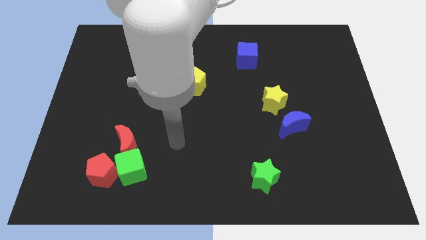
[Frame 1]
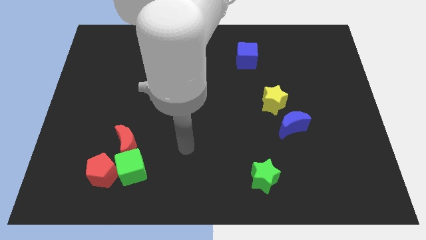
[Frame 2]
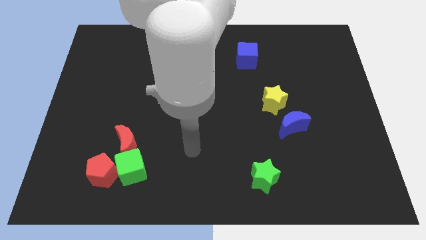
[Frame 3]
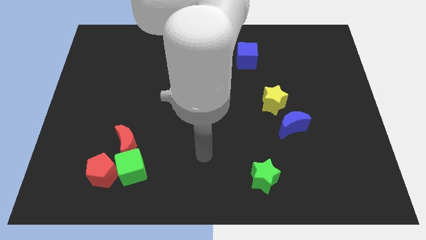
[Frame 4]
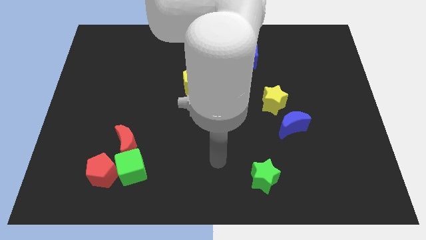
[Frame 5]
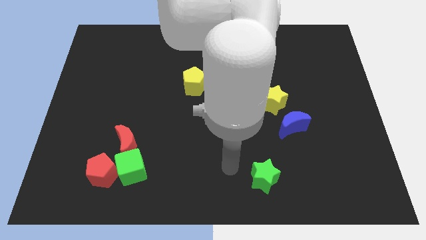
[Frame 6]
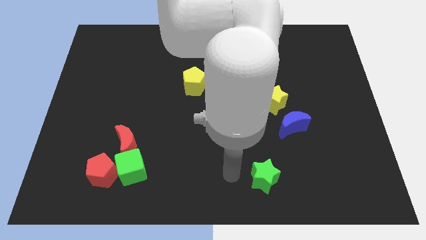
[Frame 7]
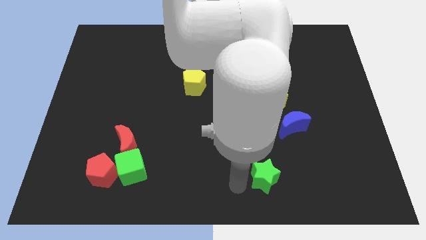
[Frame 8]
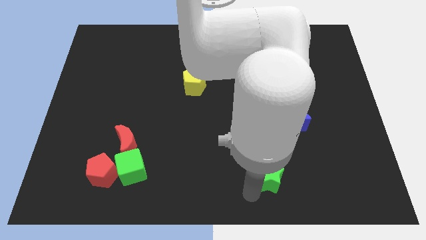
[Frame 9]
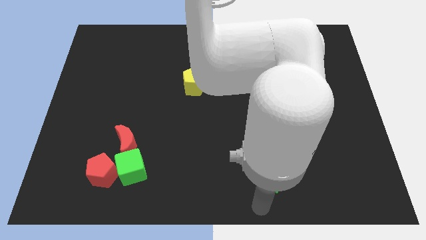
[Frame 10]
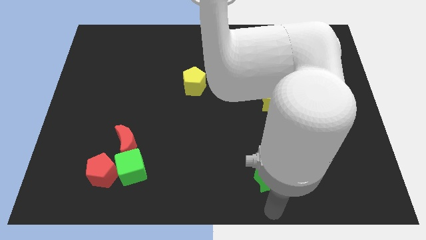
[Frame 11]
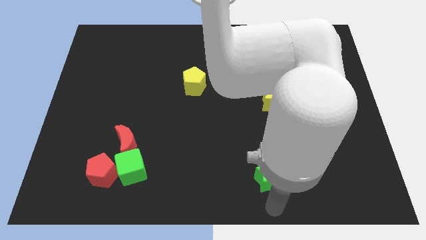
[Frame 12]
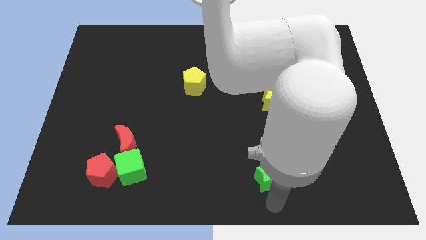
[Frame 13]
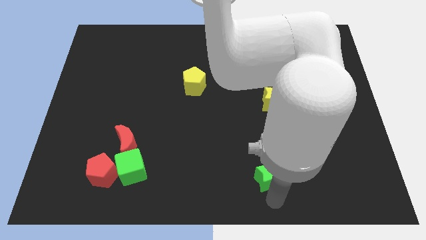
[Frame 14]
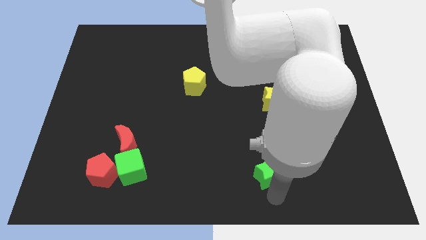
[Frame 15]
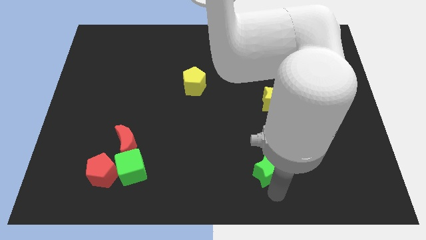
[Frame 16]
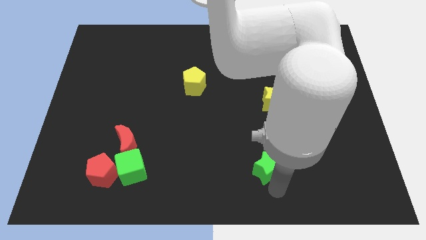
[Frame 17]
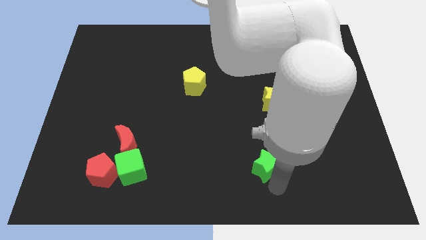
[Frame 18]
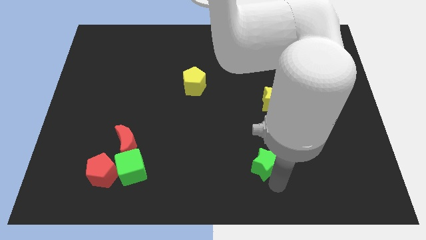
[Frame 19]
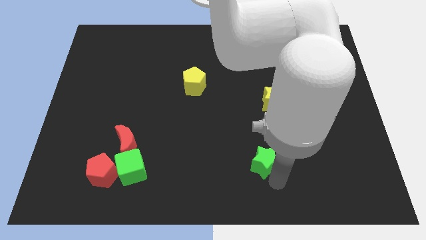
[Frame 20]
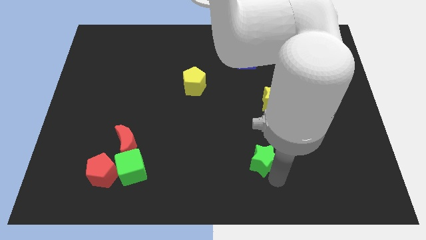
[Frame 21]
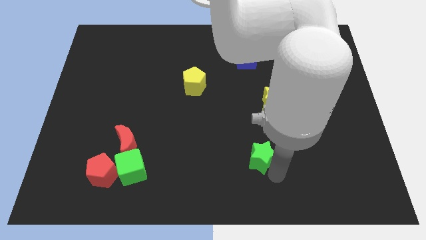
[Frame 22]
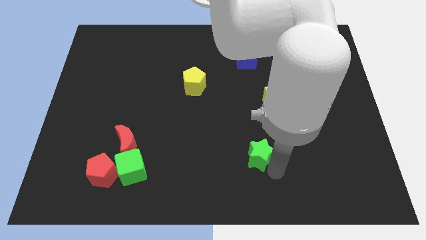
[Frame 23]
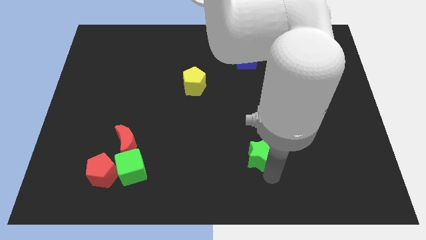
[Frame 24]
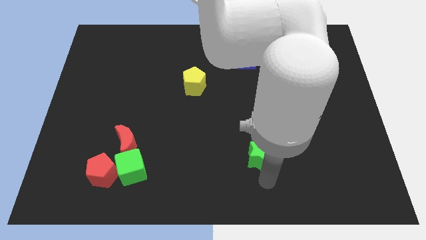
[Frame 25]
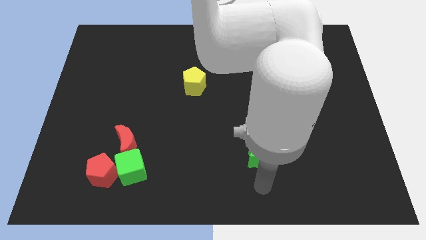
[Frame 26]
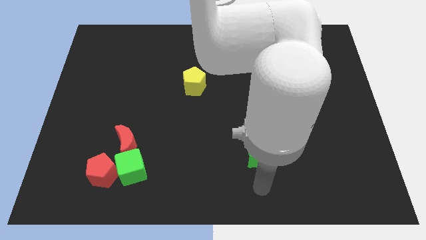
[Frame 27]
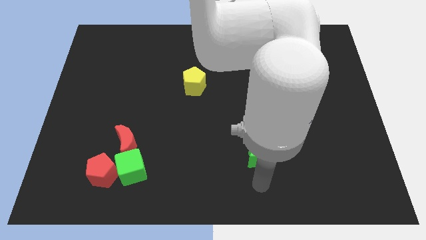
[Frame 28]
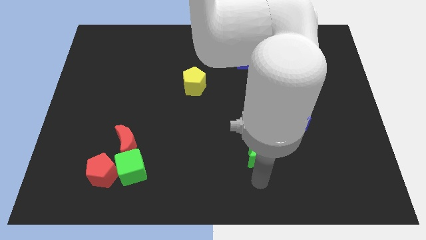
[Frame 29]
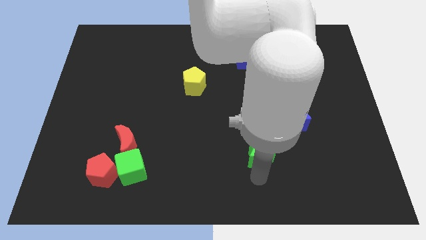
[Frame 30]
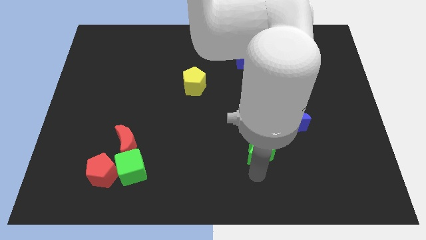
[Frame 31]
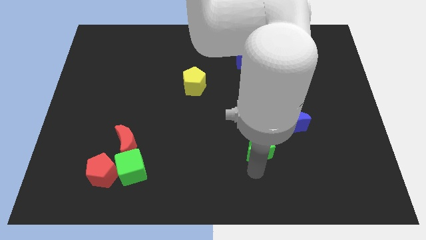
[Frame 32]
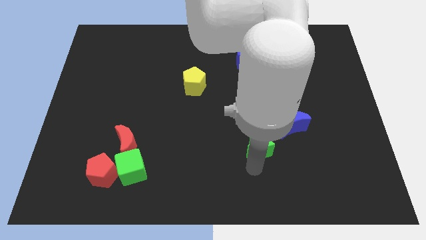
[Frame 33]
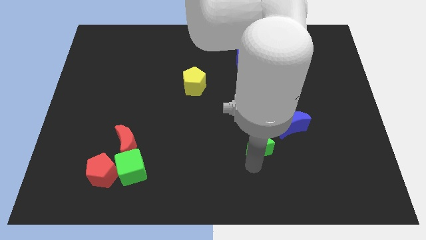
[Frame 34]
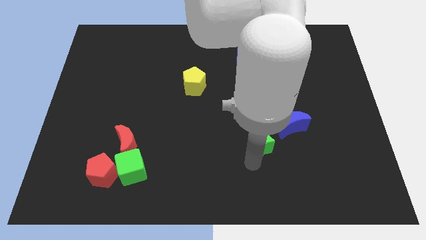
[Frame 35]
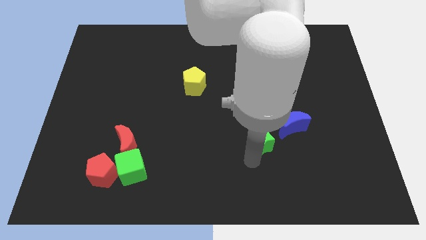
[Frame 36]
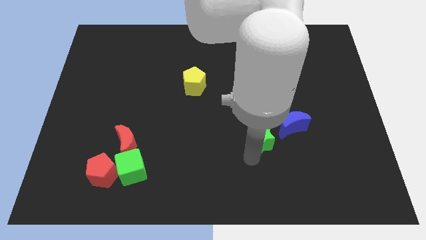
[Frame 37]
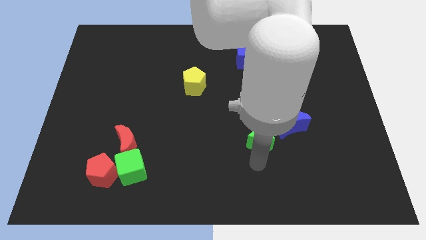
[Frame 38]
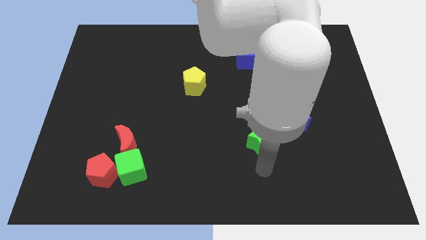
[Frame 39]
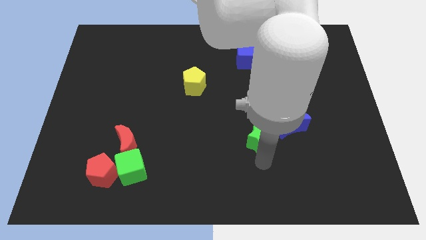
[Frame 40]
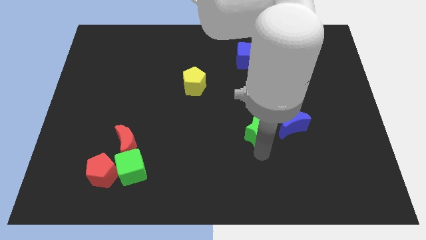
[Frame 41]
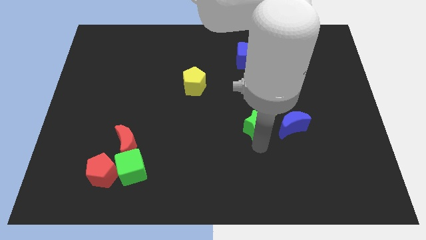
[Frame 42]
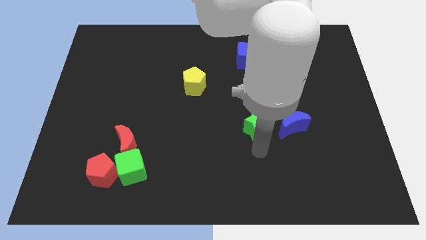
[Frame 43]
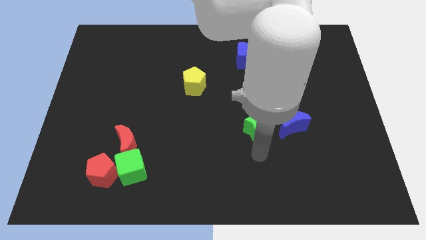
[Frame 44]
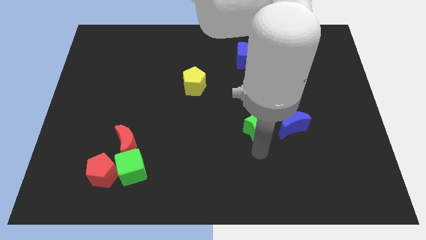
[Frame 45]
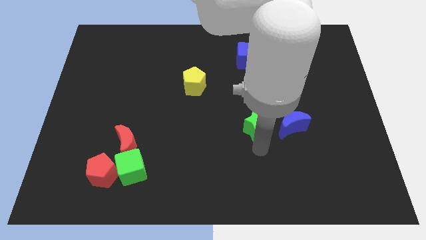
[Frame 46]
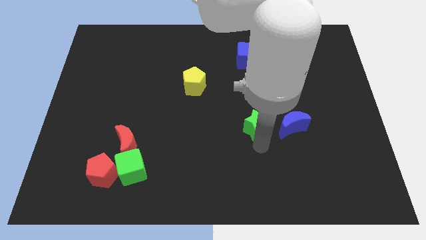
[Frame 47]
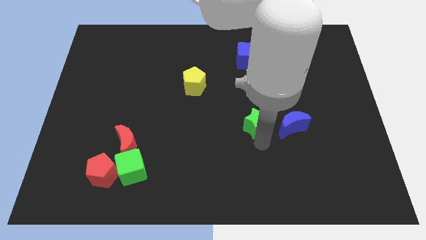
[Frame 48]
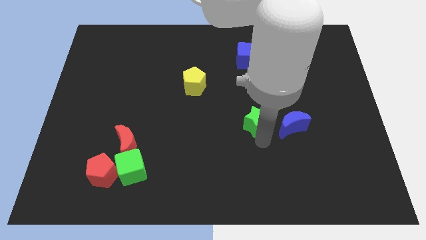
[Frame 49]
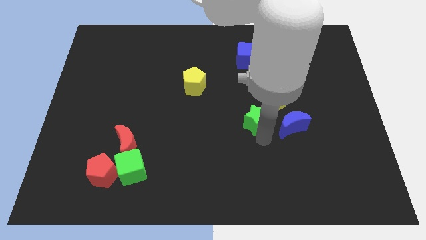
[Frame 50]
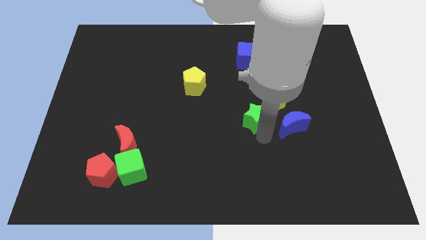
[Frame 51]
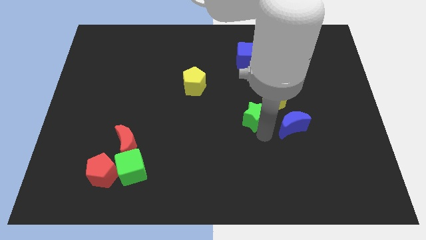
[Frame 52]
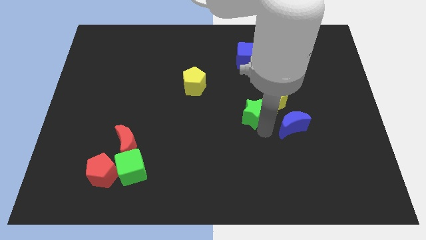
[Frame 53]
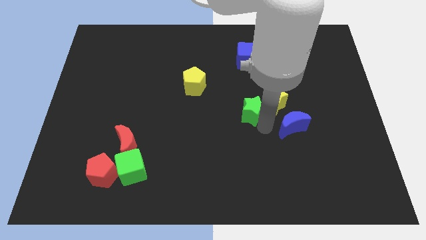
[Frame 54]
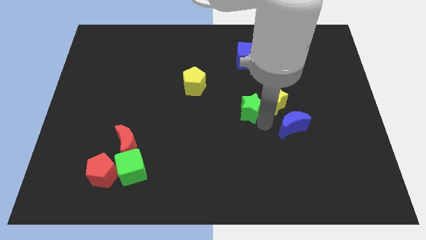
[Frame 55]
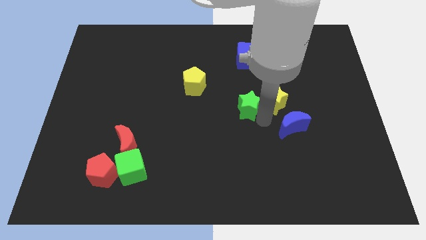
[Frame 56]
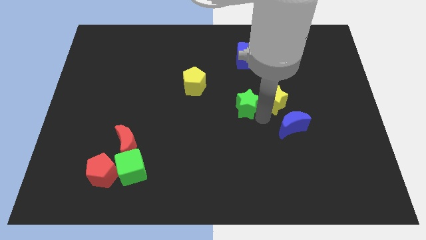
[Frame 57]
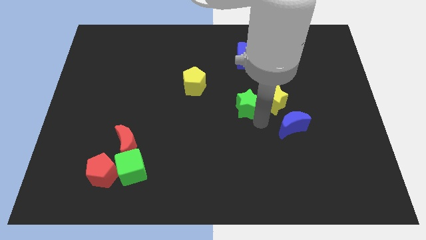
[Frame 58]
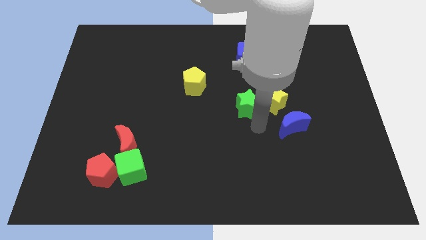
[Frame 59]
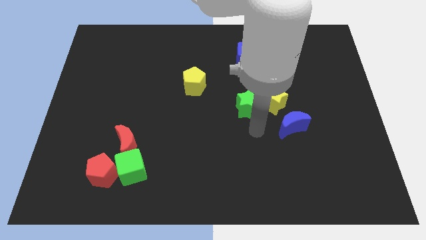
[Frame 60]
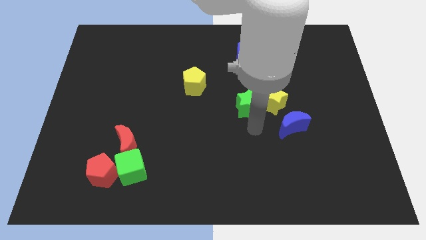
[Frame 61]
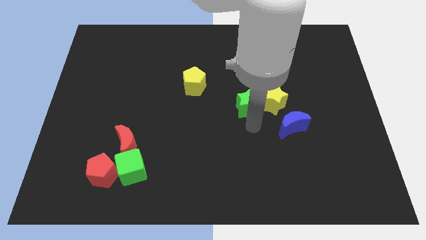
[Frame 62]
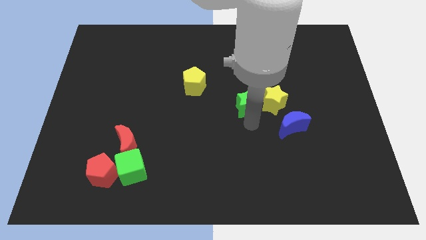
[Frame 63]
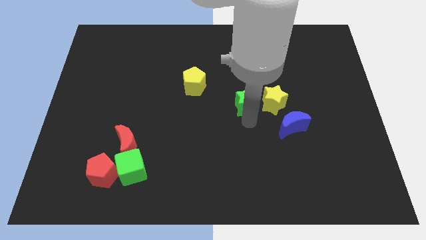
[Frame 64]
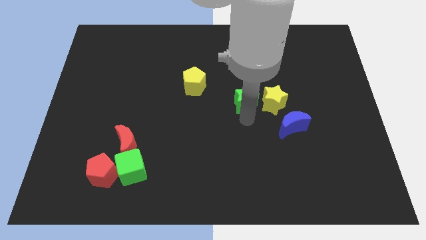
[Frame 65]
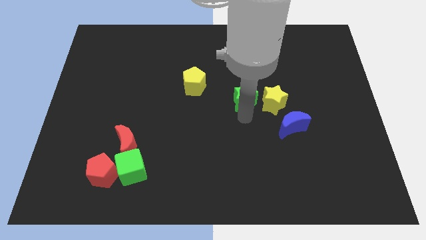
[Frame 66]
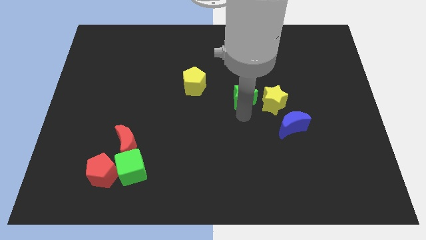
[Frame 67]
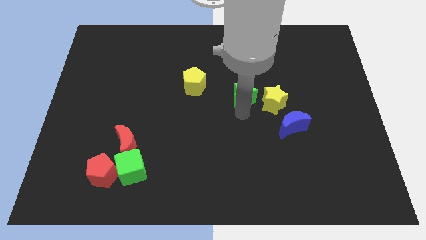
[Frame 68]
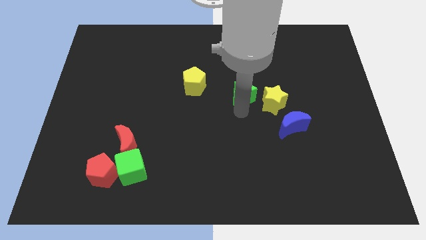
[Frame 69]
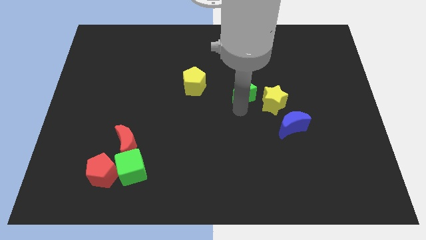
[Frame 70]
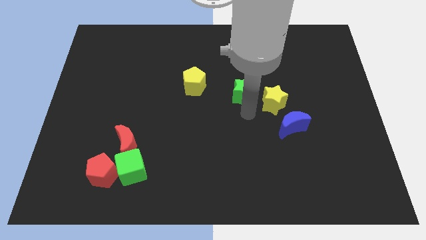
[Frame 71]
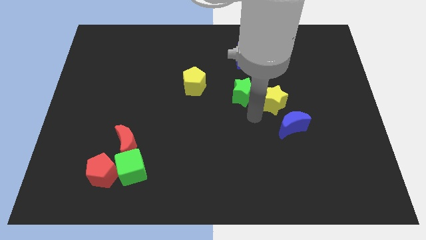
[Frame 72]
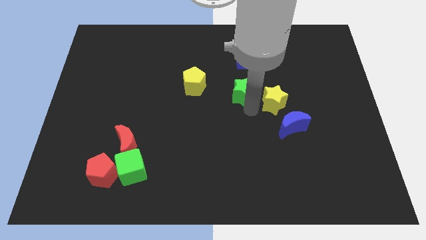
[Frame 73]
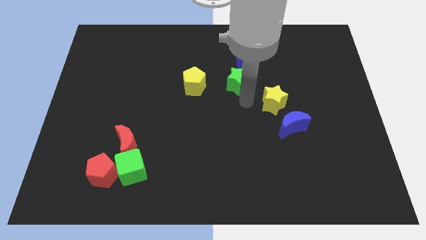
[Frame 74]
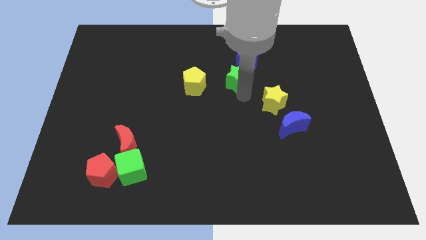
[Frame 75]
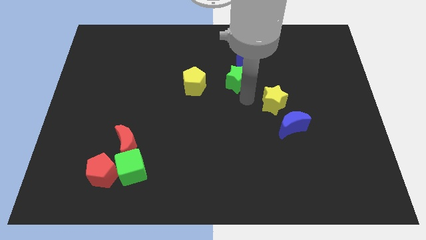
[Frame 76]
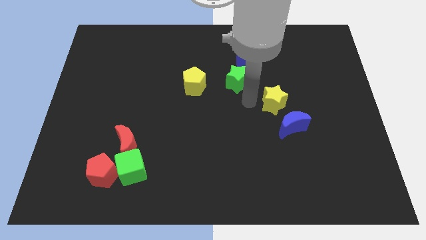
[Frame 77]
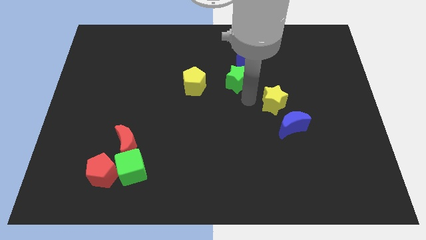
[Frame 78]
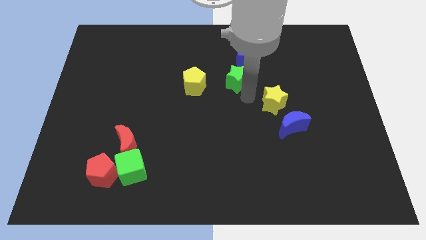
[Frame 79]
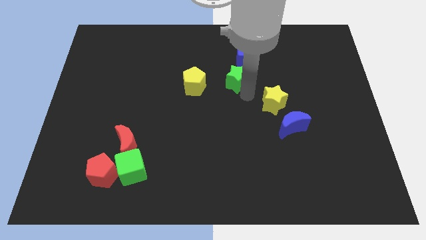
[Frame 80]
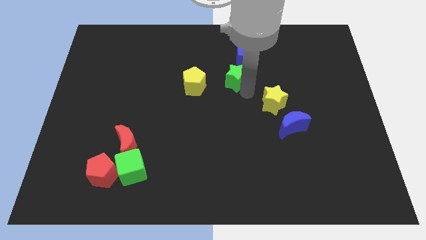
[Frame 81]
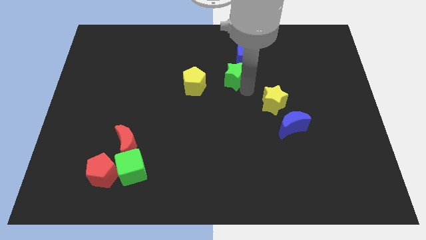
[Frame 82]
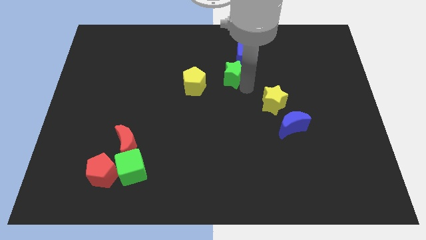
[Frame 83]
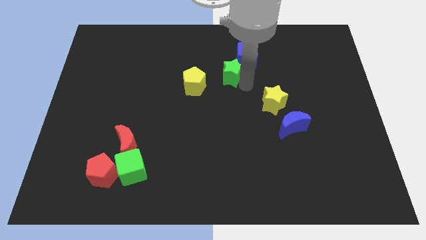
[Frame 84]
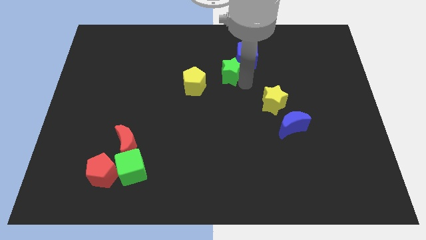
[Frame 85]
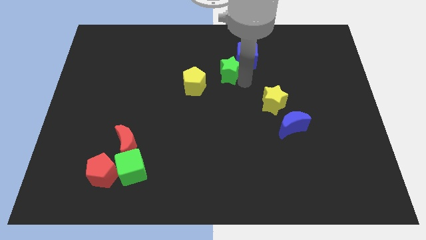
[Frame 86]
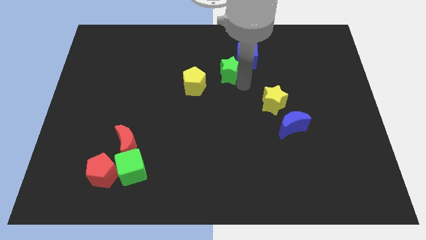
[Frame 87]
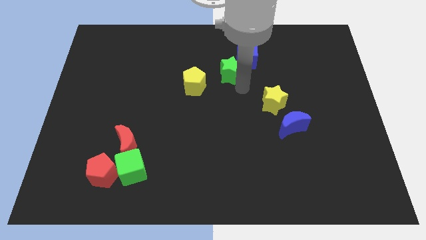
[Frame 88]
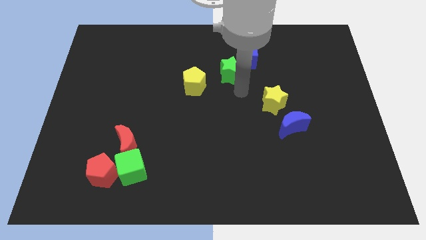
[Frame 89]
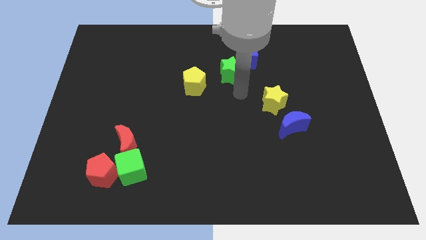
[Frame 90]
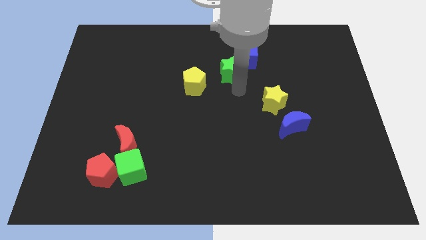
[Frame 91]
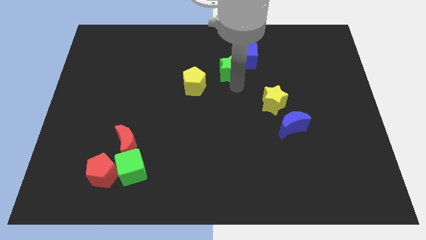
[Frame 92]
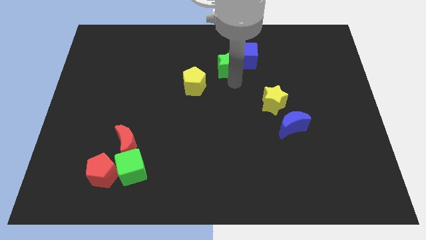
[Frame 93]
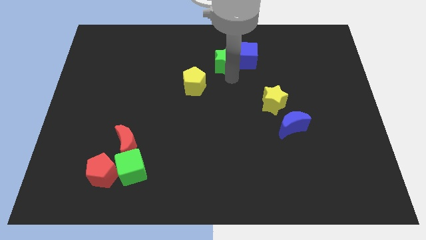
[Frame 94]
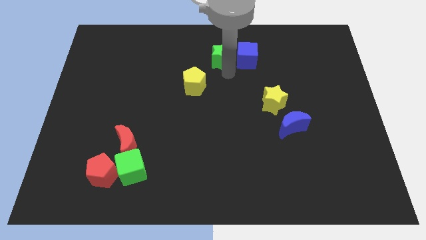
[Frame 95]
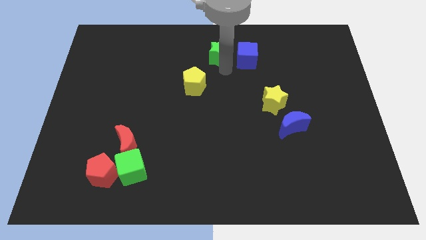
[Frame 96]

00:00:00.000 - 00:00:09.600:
push the green star to the towards your base
